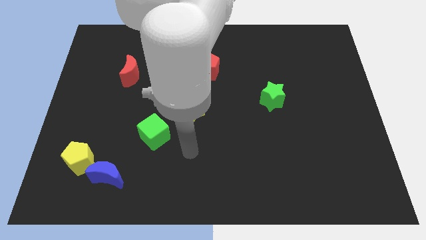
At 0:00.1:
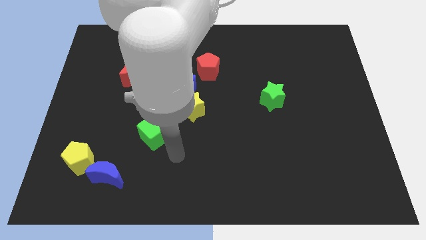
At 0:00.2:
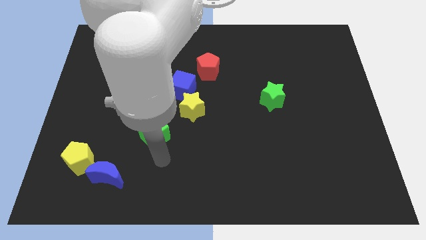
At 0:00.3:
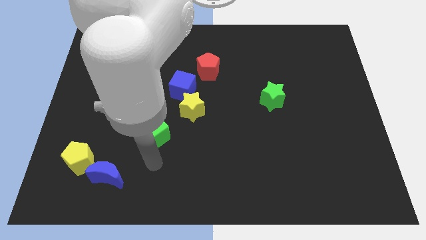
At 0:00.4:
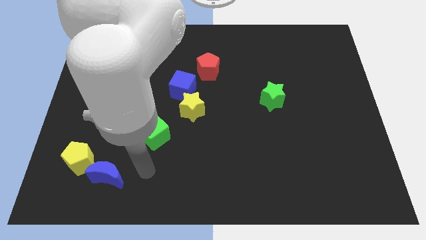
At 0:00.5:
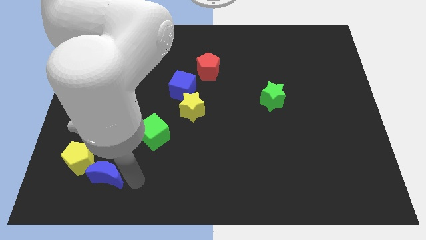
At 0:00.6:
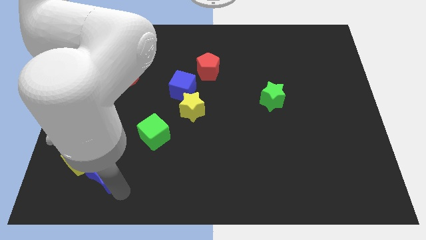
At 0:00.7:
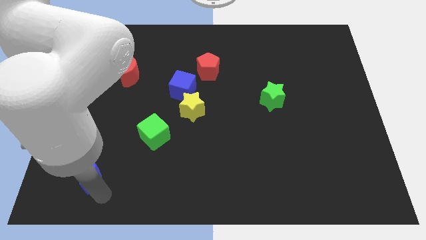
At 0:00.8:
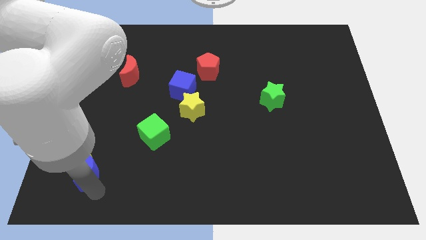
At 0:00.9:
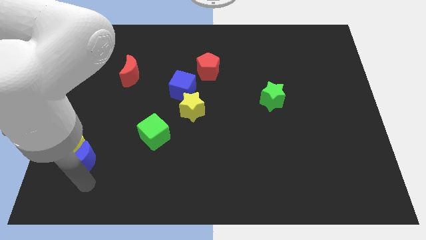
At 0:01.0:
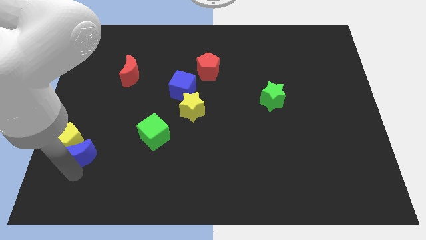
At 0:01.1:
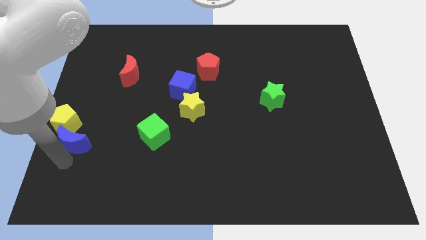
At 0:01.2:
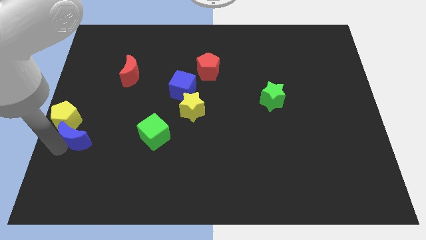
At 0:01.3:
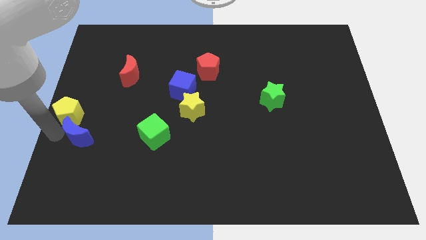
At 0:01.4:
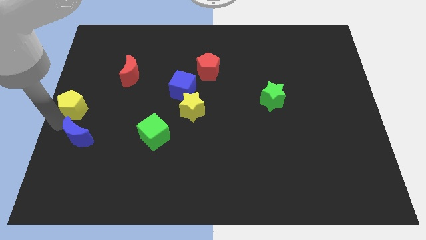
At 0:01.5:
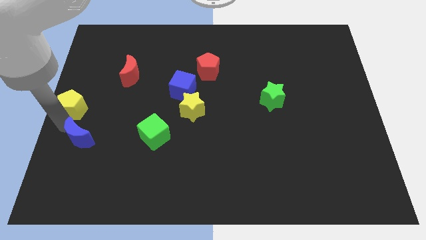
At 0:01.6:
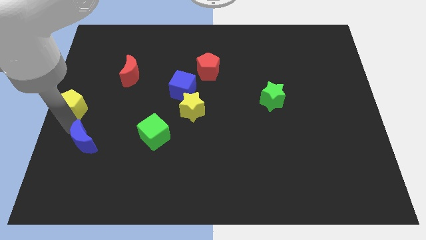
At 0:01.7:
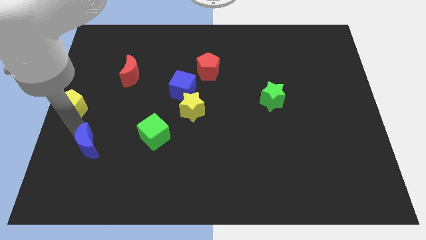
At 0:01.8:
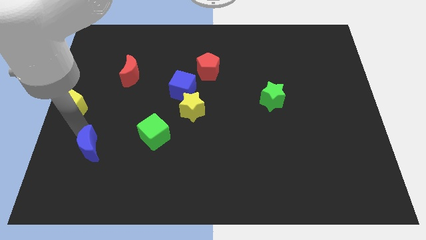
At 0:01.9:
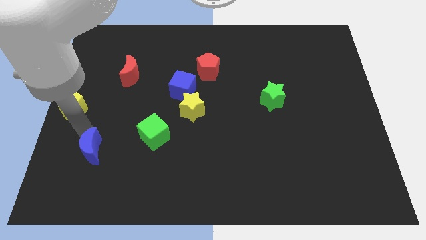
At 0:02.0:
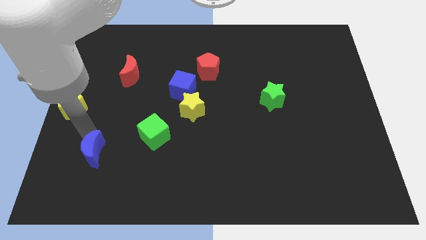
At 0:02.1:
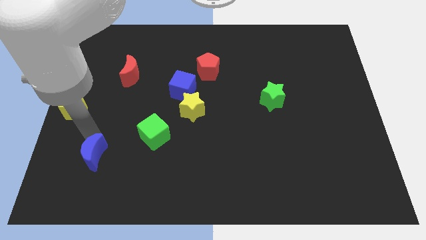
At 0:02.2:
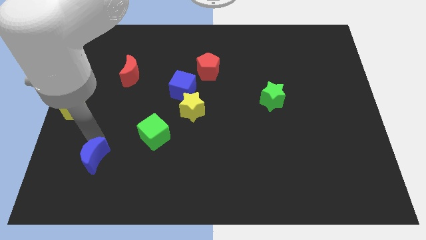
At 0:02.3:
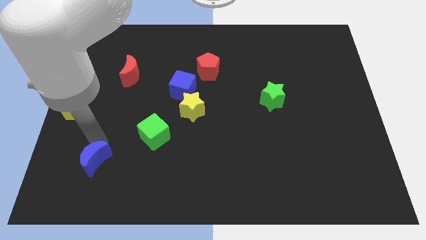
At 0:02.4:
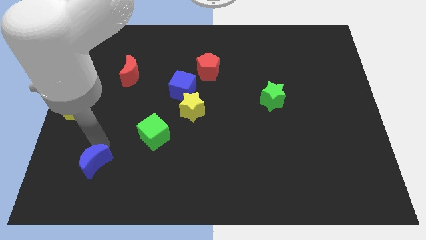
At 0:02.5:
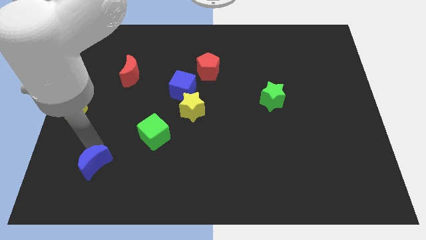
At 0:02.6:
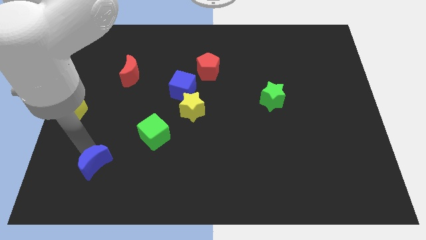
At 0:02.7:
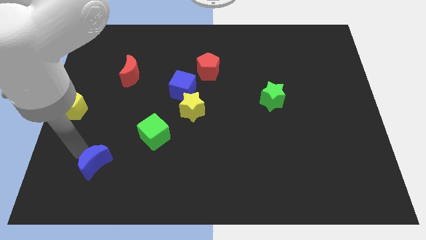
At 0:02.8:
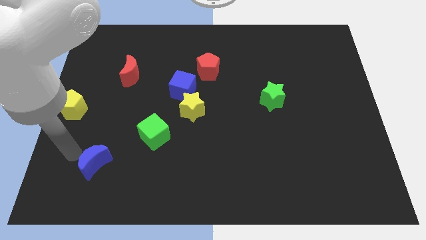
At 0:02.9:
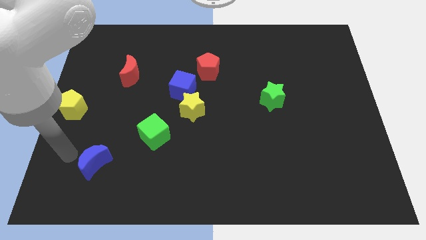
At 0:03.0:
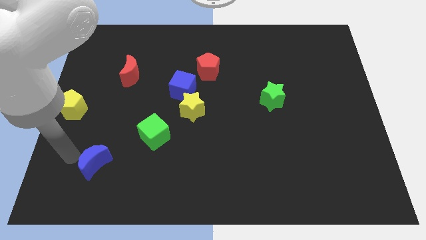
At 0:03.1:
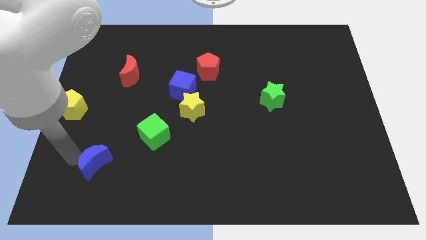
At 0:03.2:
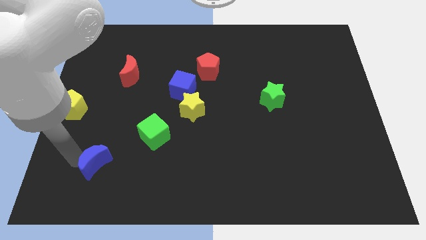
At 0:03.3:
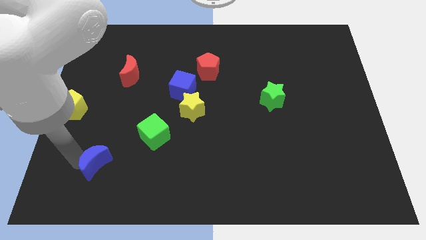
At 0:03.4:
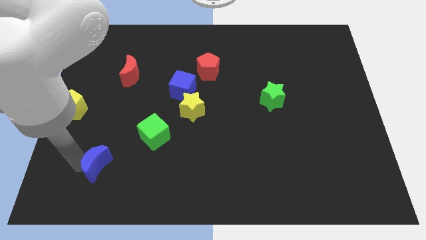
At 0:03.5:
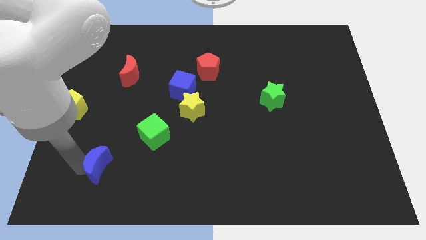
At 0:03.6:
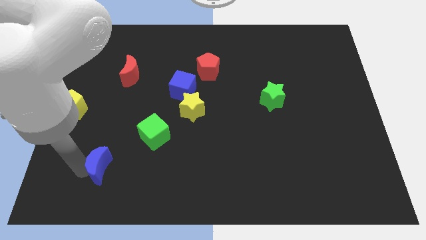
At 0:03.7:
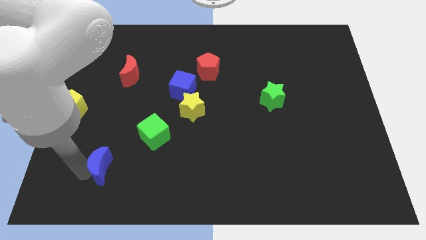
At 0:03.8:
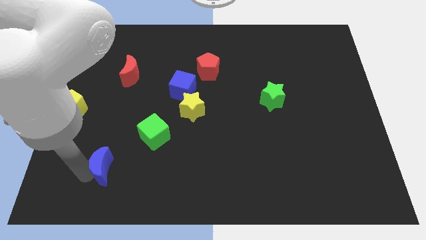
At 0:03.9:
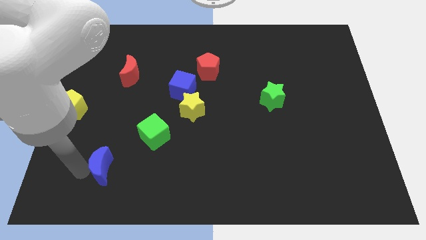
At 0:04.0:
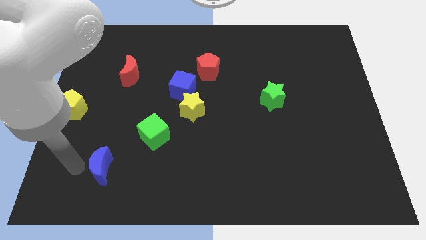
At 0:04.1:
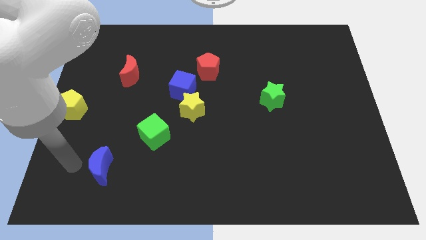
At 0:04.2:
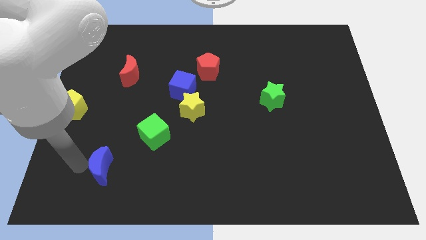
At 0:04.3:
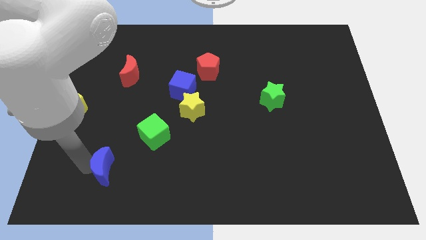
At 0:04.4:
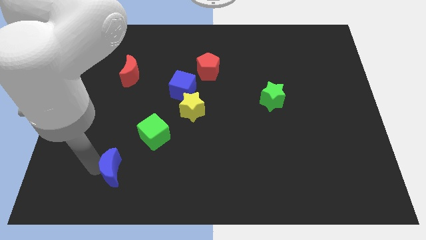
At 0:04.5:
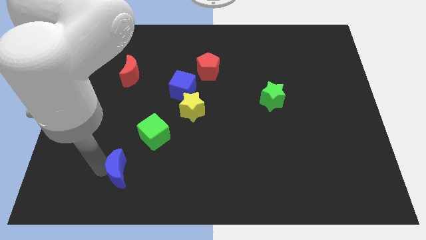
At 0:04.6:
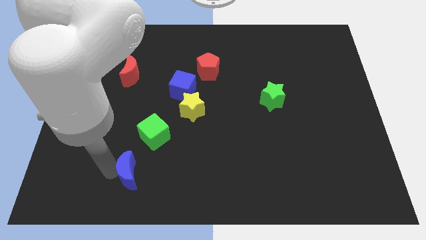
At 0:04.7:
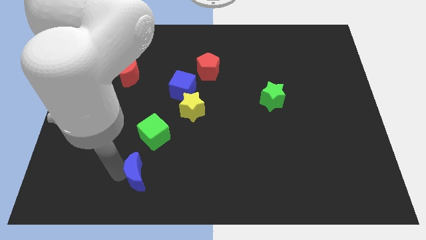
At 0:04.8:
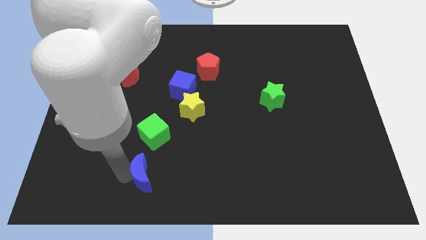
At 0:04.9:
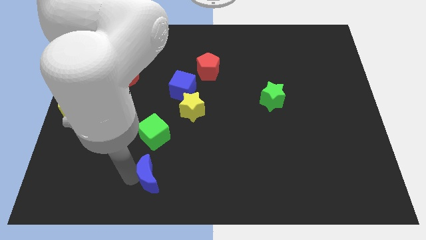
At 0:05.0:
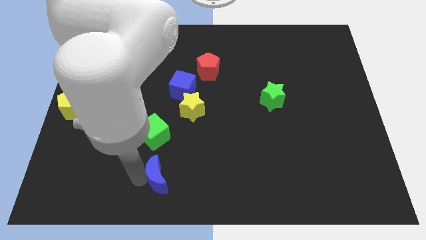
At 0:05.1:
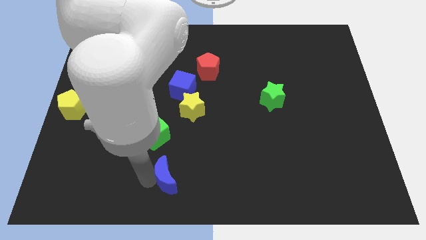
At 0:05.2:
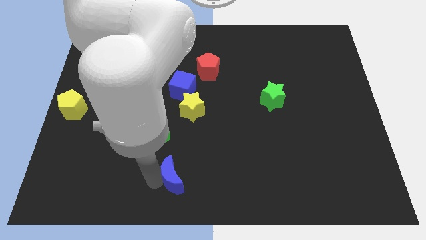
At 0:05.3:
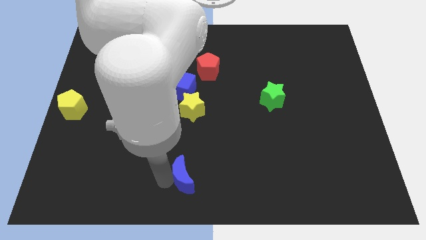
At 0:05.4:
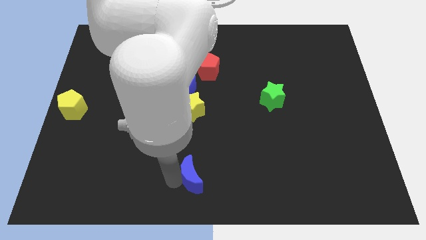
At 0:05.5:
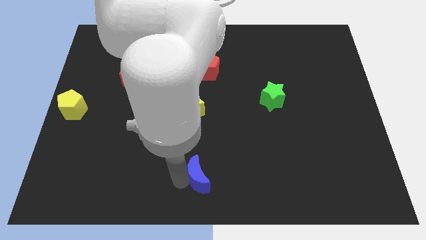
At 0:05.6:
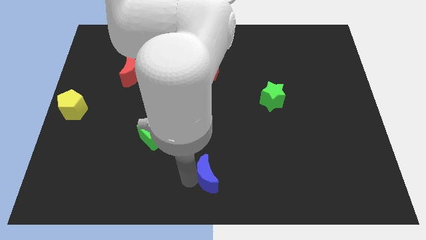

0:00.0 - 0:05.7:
move the blue moon to the right

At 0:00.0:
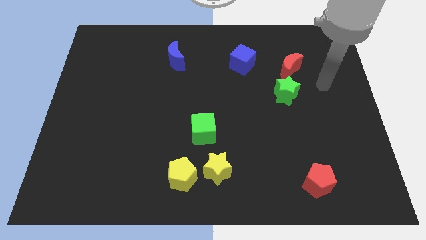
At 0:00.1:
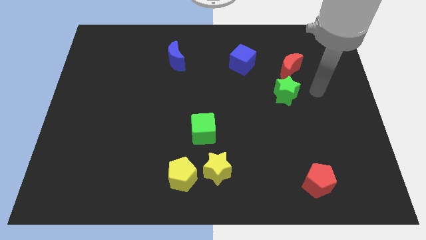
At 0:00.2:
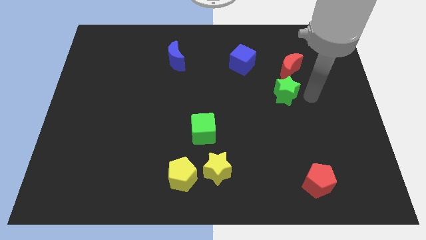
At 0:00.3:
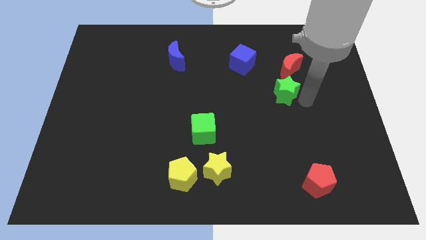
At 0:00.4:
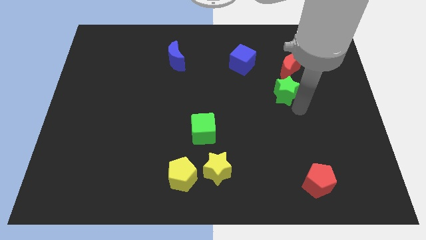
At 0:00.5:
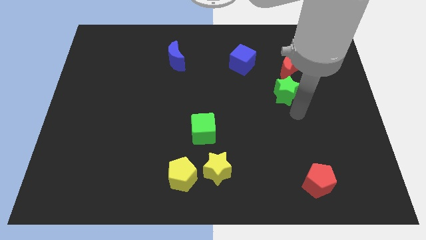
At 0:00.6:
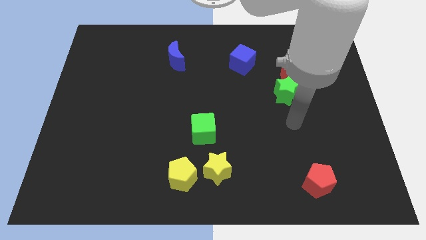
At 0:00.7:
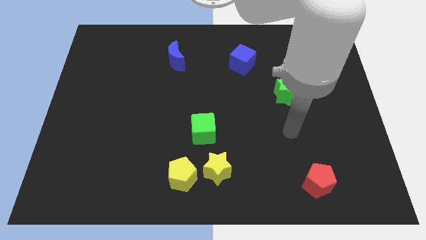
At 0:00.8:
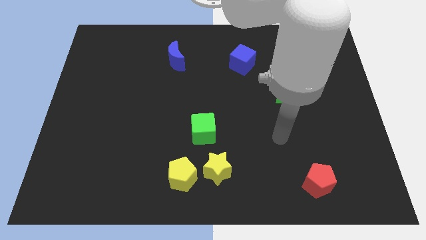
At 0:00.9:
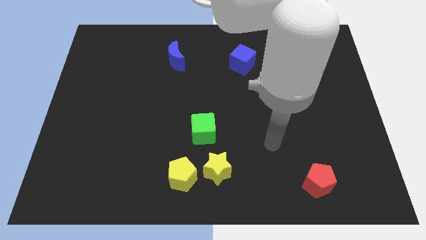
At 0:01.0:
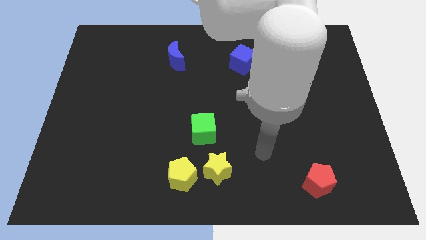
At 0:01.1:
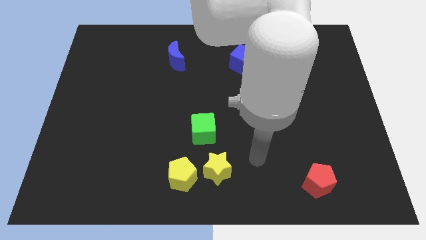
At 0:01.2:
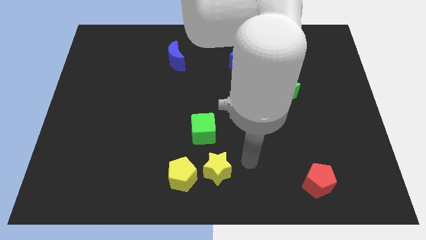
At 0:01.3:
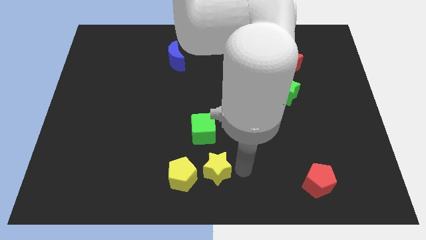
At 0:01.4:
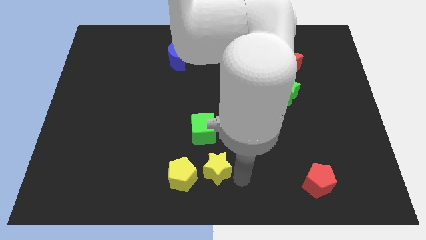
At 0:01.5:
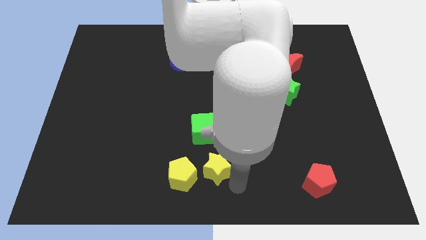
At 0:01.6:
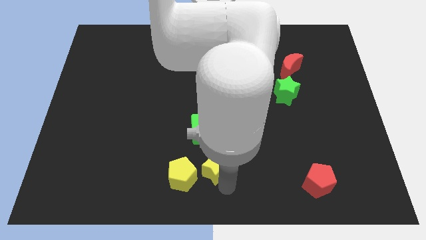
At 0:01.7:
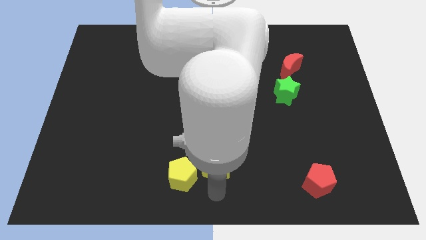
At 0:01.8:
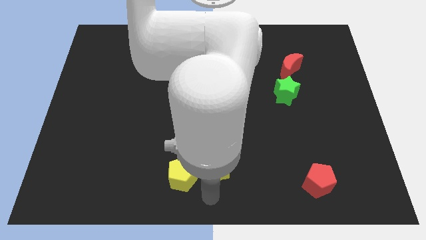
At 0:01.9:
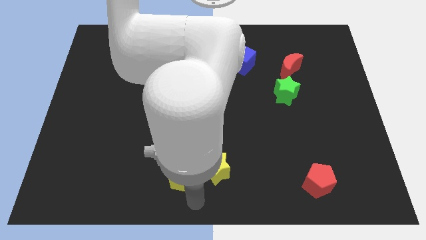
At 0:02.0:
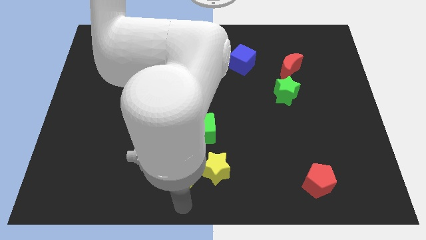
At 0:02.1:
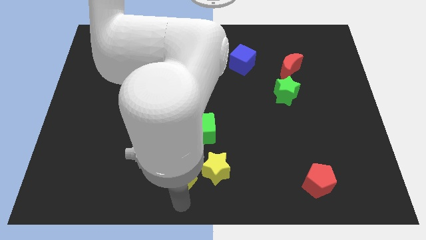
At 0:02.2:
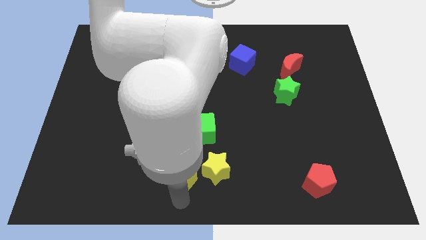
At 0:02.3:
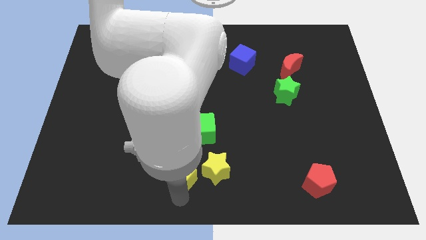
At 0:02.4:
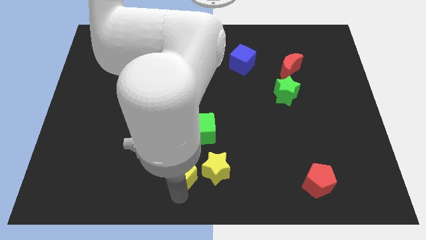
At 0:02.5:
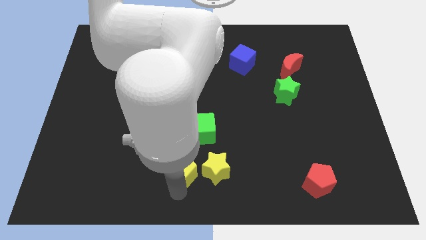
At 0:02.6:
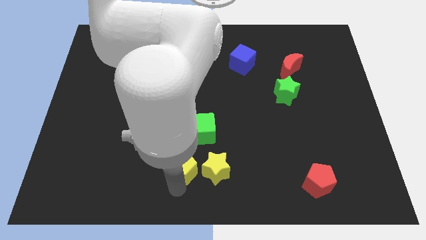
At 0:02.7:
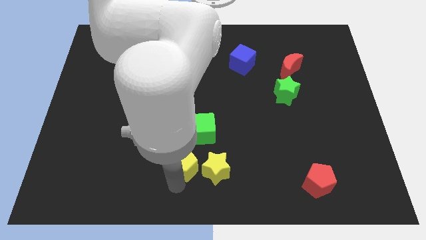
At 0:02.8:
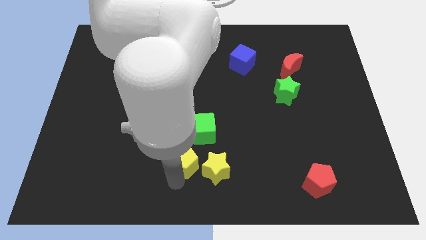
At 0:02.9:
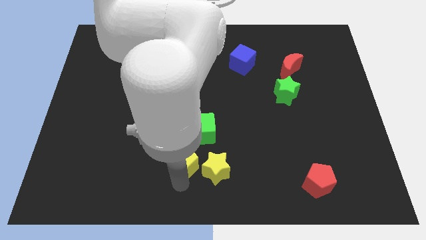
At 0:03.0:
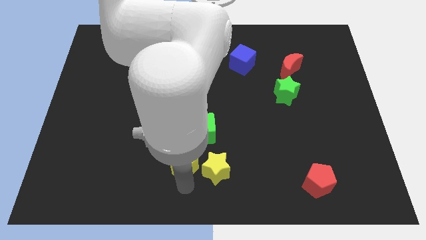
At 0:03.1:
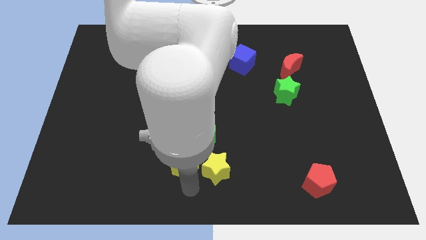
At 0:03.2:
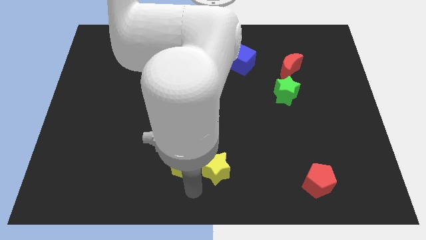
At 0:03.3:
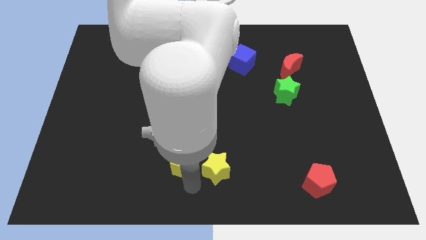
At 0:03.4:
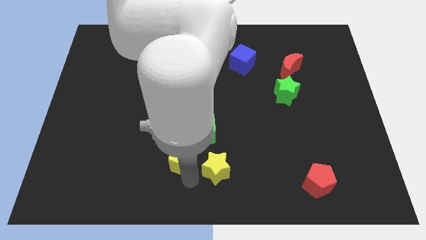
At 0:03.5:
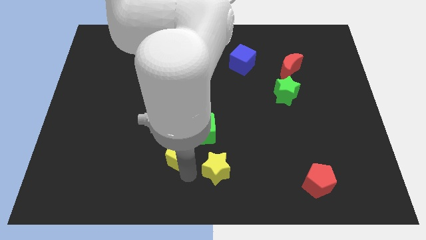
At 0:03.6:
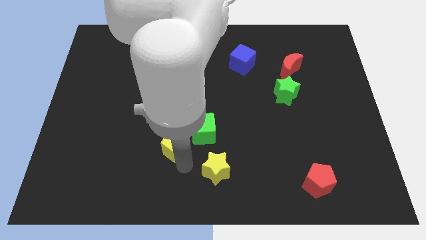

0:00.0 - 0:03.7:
slightly push the yellow pentagon up
